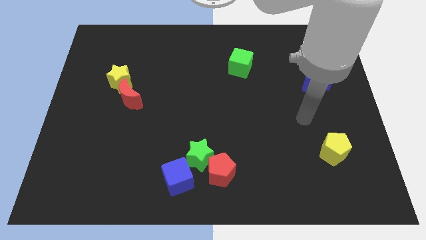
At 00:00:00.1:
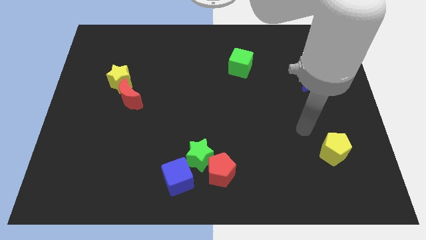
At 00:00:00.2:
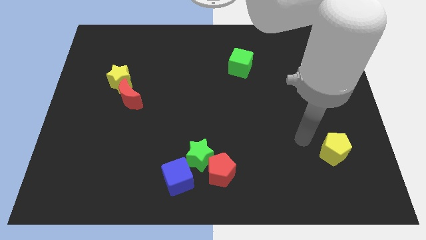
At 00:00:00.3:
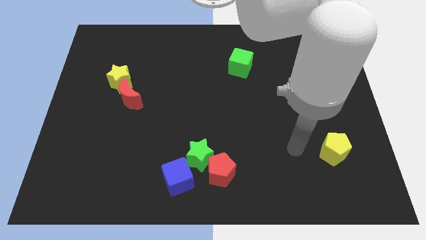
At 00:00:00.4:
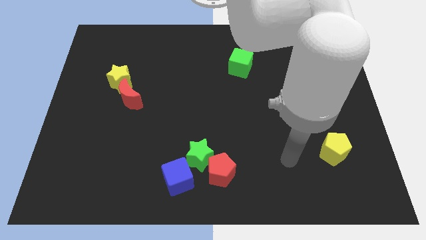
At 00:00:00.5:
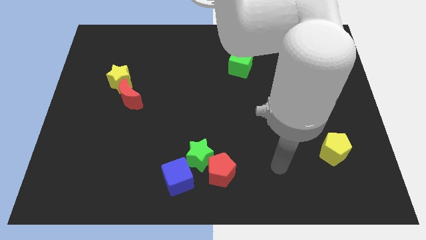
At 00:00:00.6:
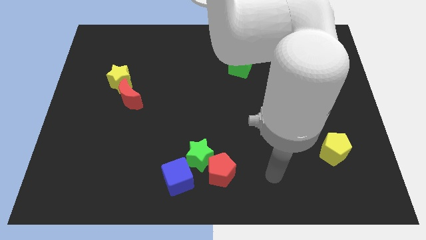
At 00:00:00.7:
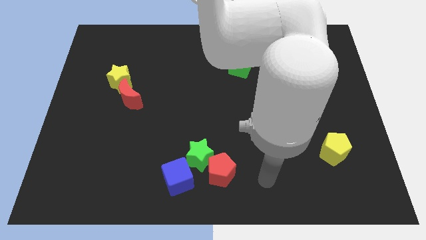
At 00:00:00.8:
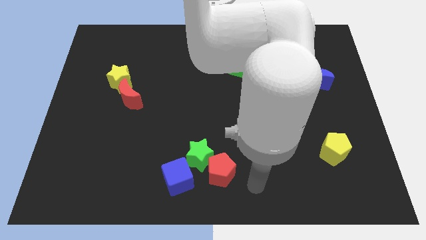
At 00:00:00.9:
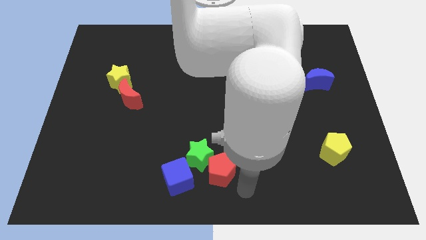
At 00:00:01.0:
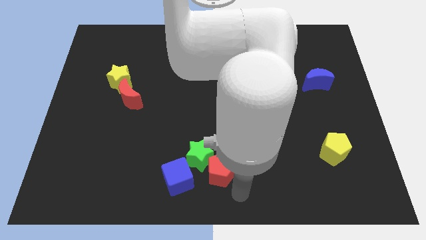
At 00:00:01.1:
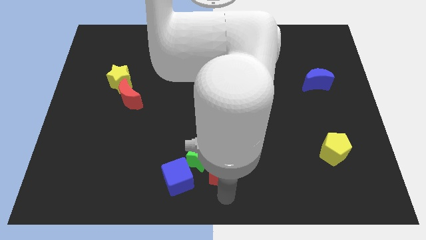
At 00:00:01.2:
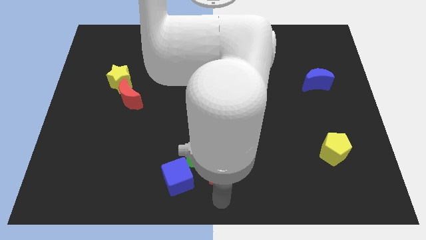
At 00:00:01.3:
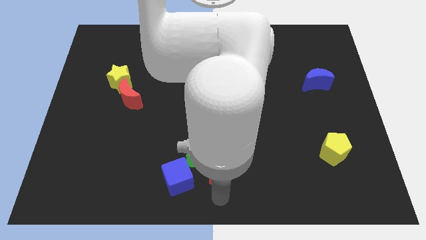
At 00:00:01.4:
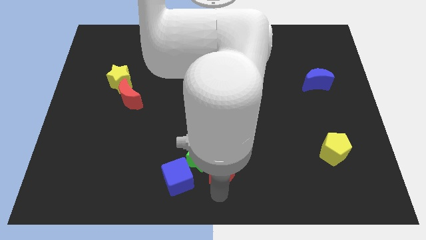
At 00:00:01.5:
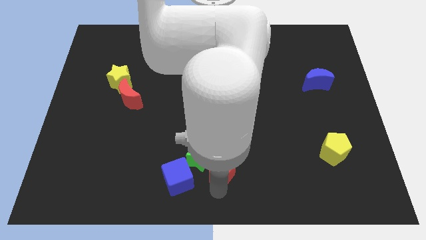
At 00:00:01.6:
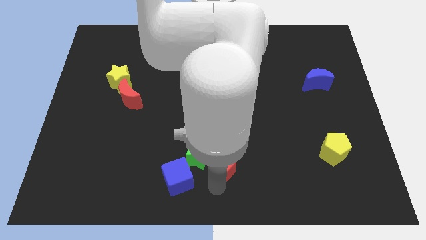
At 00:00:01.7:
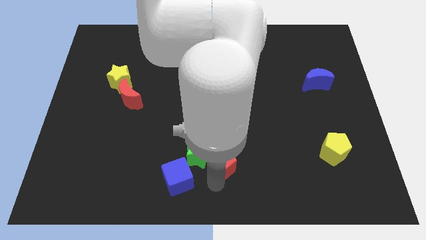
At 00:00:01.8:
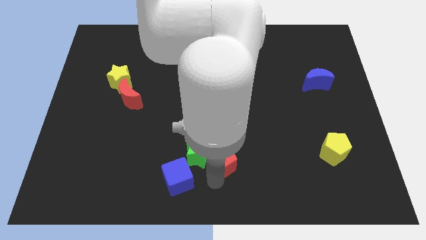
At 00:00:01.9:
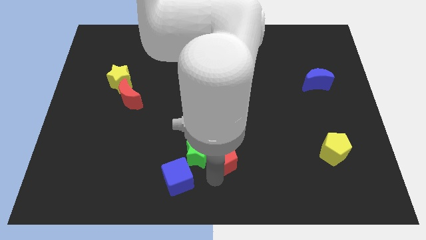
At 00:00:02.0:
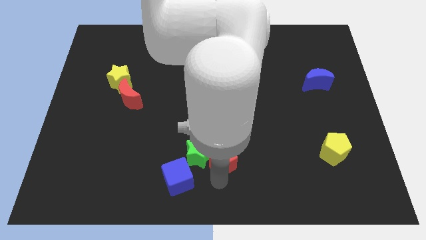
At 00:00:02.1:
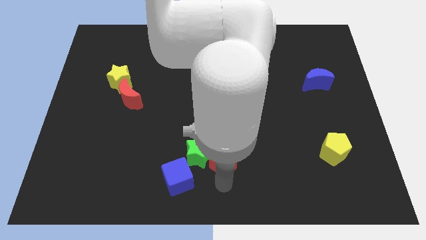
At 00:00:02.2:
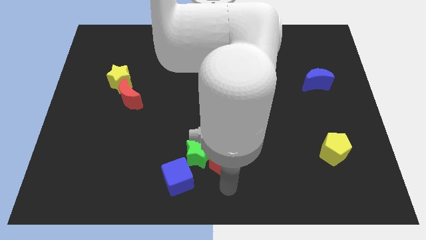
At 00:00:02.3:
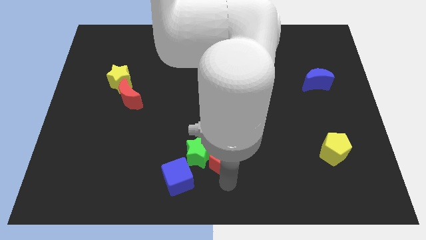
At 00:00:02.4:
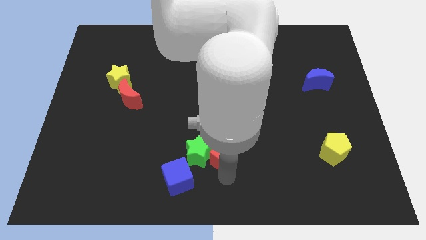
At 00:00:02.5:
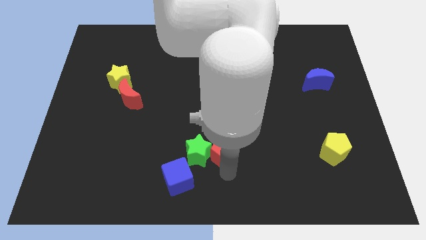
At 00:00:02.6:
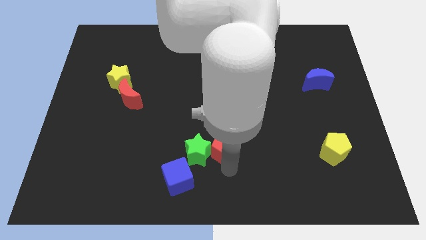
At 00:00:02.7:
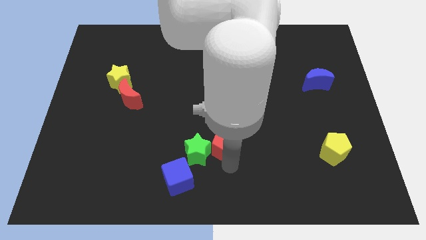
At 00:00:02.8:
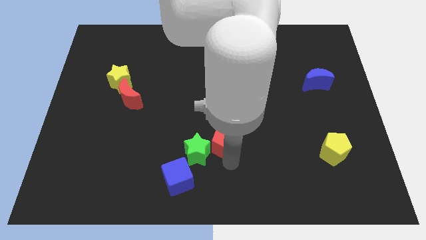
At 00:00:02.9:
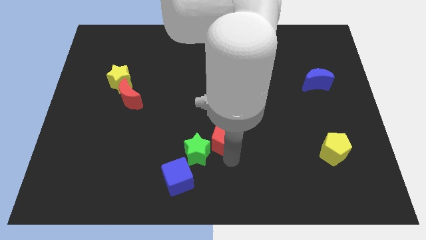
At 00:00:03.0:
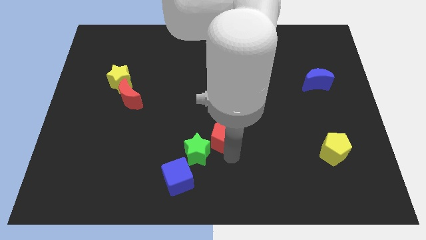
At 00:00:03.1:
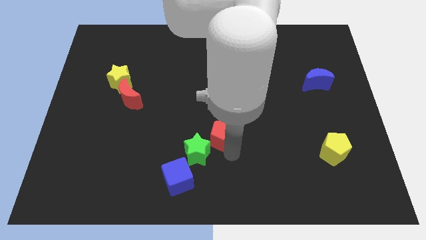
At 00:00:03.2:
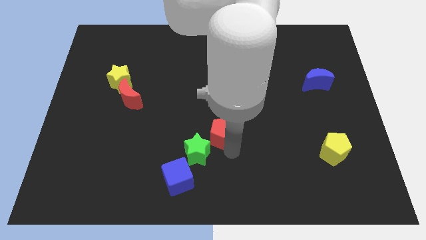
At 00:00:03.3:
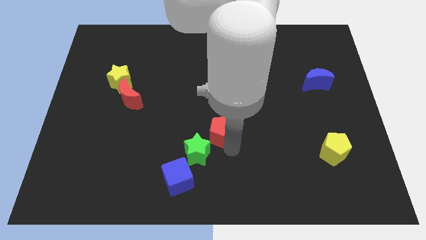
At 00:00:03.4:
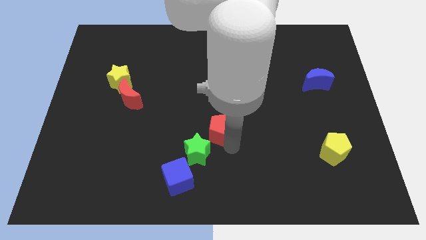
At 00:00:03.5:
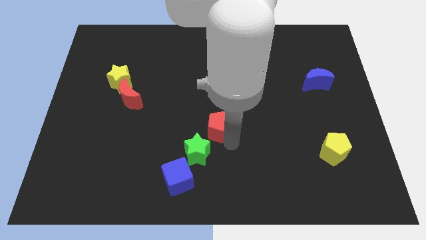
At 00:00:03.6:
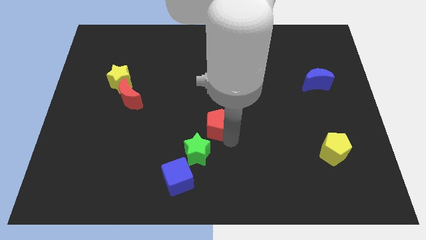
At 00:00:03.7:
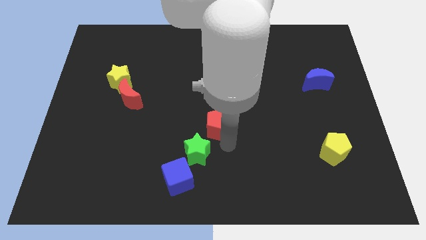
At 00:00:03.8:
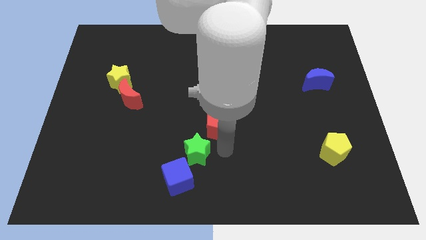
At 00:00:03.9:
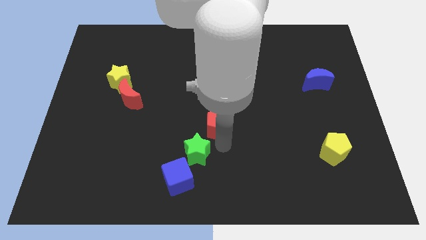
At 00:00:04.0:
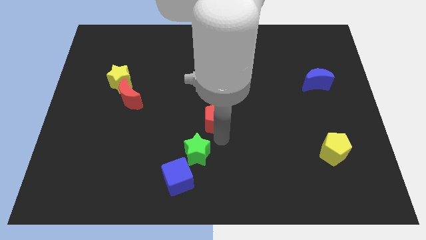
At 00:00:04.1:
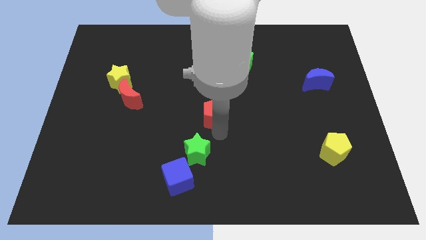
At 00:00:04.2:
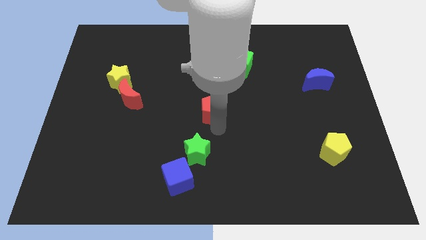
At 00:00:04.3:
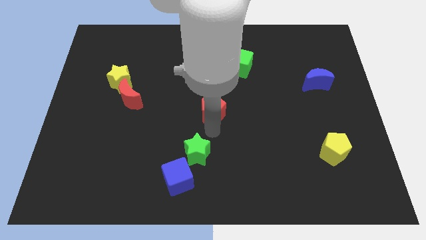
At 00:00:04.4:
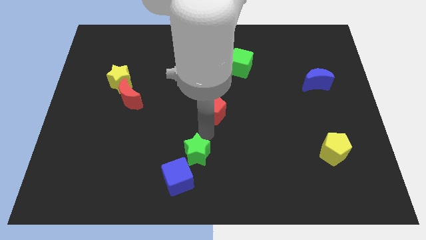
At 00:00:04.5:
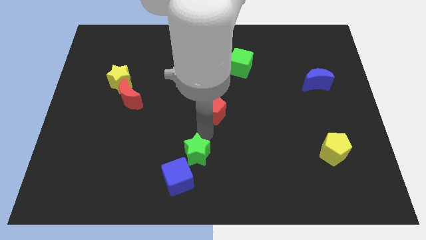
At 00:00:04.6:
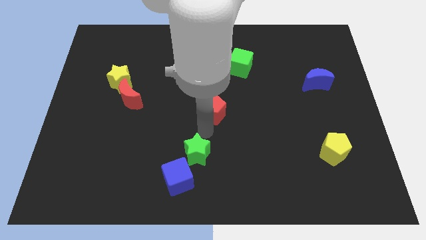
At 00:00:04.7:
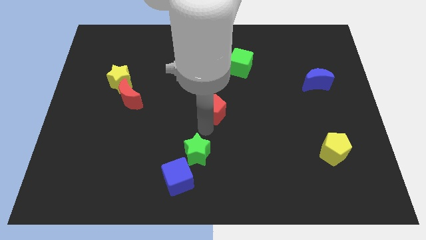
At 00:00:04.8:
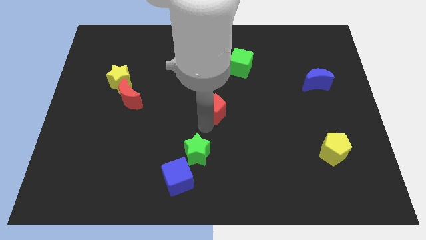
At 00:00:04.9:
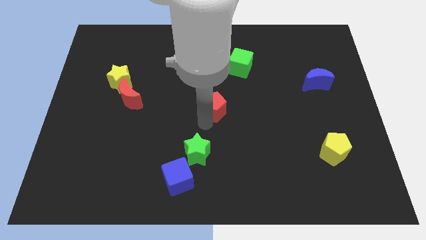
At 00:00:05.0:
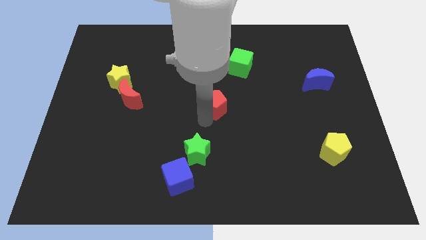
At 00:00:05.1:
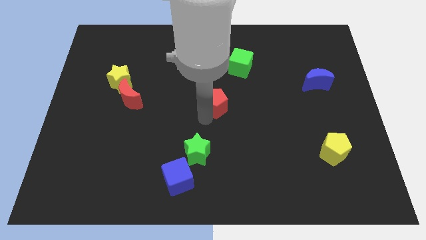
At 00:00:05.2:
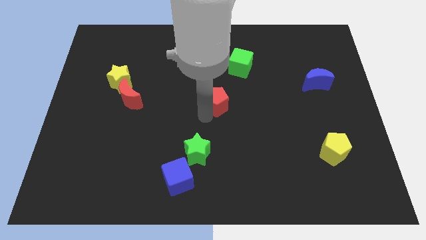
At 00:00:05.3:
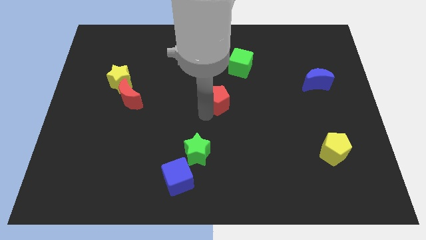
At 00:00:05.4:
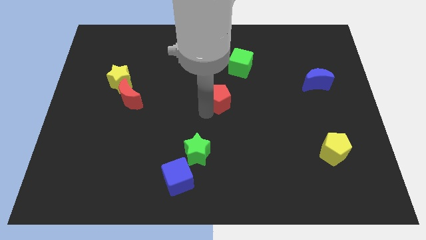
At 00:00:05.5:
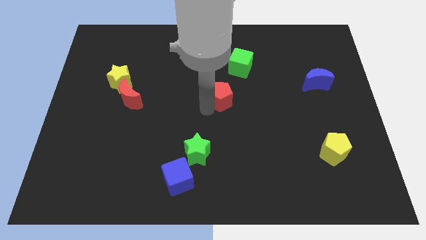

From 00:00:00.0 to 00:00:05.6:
slide the red pentagon upwards

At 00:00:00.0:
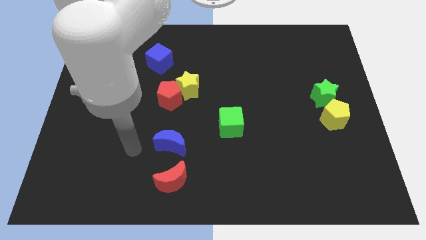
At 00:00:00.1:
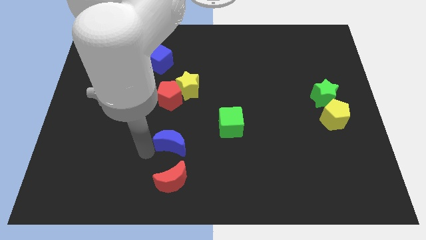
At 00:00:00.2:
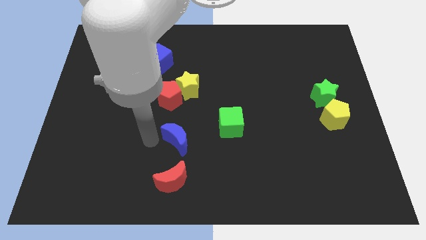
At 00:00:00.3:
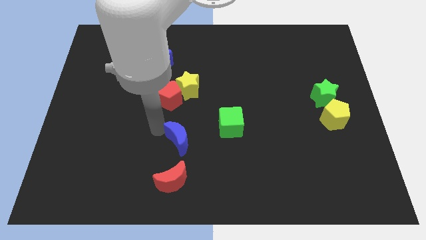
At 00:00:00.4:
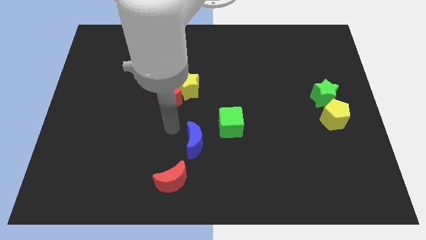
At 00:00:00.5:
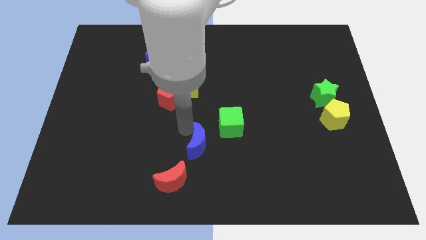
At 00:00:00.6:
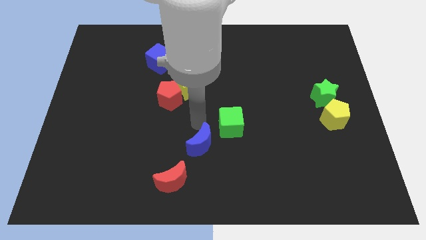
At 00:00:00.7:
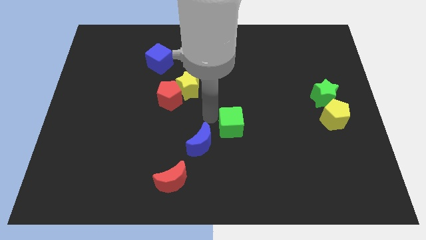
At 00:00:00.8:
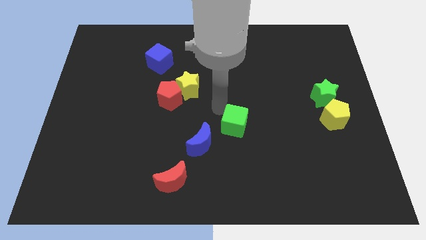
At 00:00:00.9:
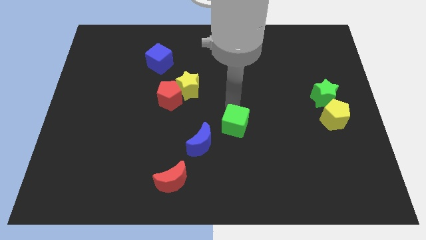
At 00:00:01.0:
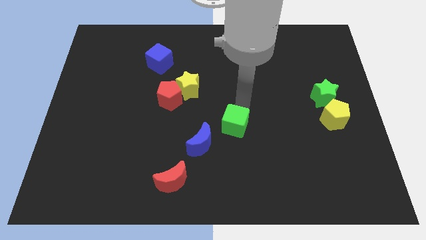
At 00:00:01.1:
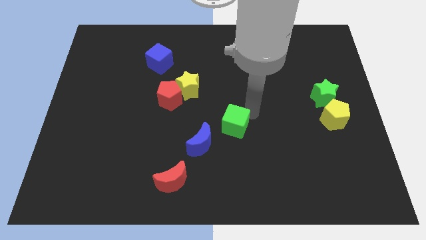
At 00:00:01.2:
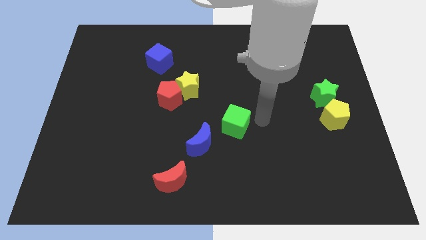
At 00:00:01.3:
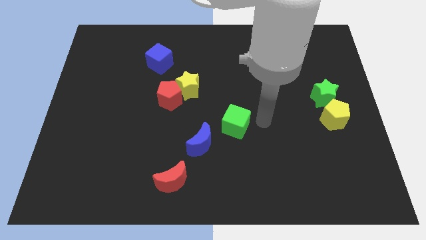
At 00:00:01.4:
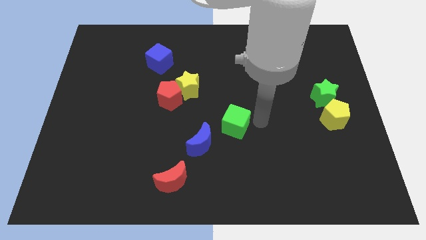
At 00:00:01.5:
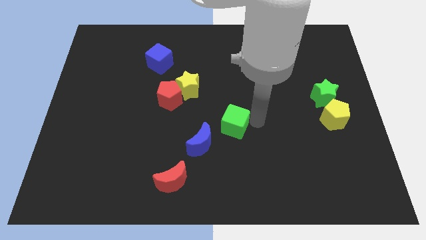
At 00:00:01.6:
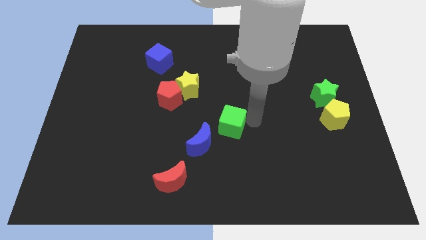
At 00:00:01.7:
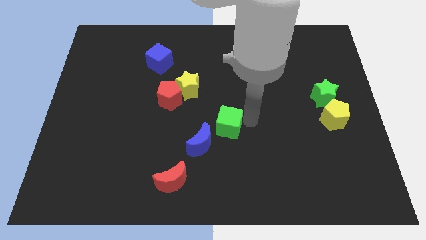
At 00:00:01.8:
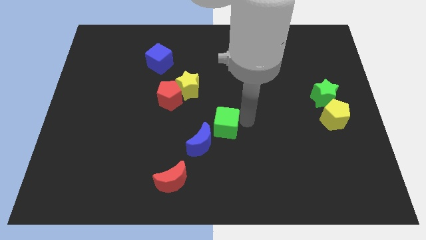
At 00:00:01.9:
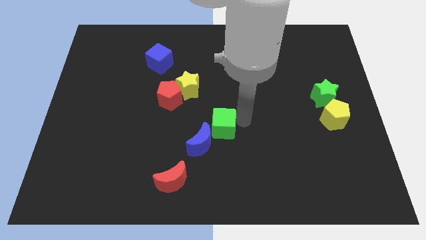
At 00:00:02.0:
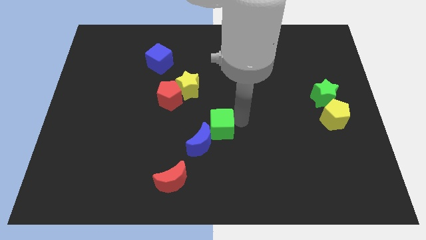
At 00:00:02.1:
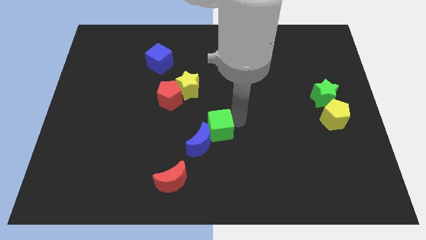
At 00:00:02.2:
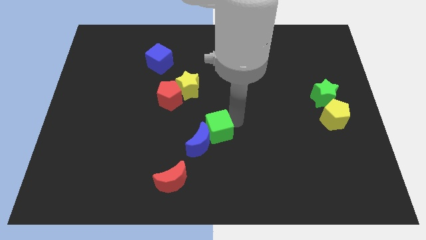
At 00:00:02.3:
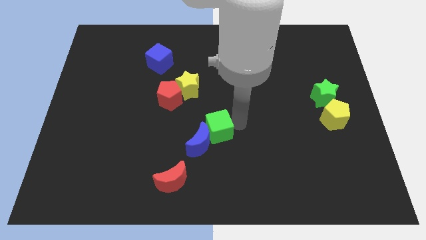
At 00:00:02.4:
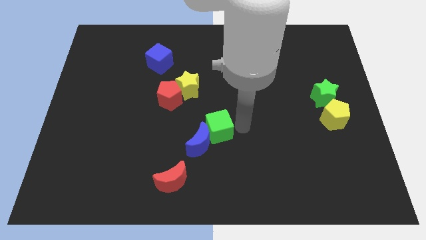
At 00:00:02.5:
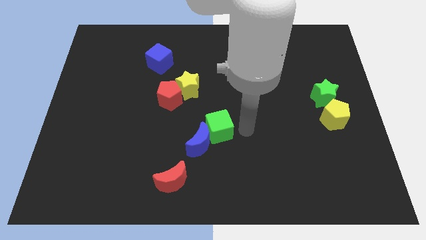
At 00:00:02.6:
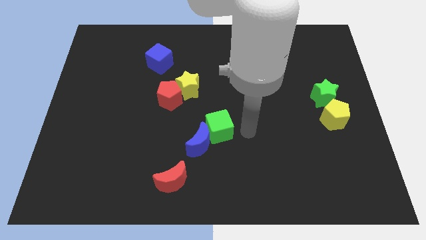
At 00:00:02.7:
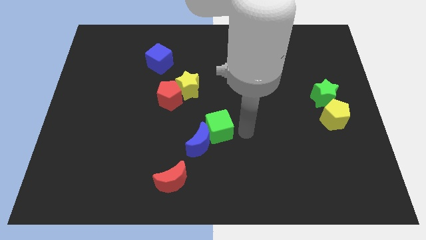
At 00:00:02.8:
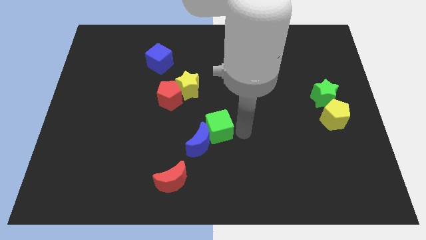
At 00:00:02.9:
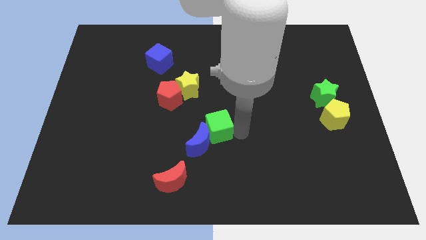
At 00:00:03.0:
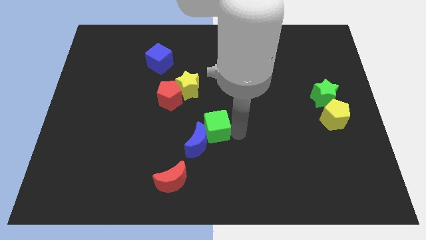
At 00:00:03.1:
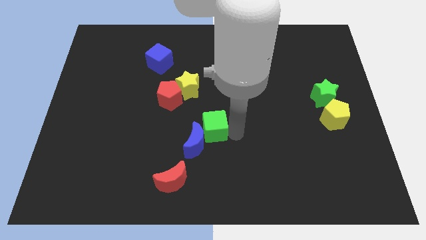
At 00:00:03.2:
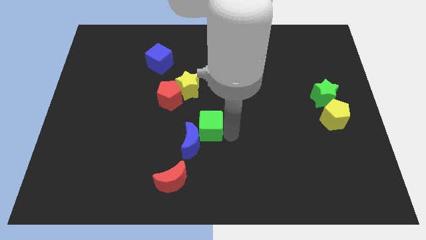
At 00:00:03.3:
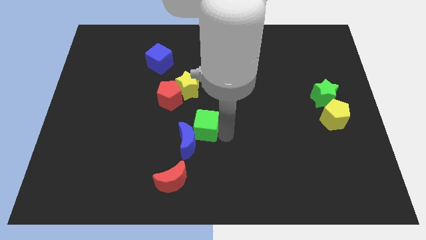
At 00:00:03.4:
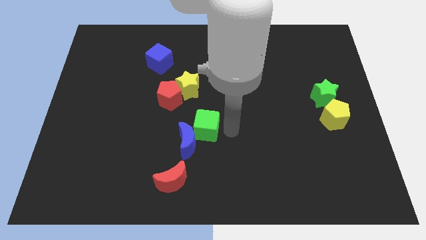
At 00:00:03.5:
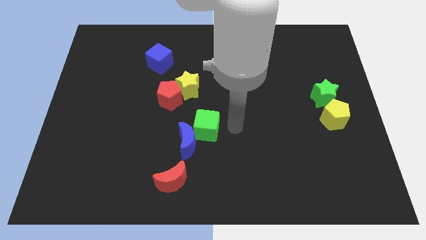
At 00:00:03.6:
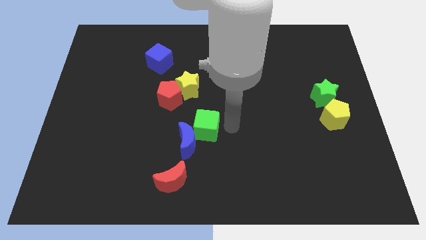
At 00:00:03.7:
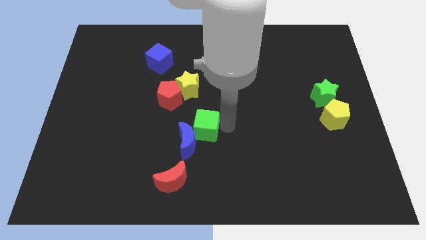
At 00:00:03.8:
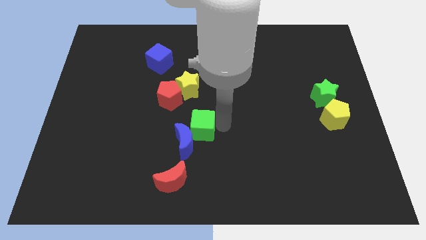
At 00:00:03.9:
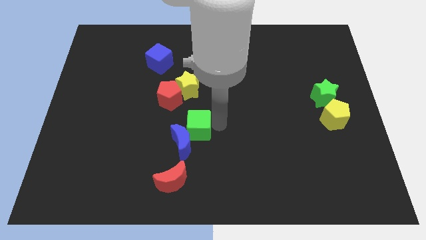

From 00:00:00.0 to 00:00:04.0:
slightly move the green cube to the left
